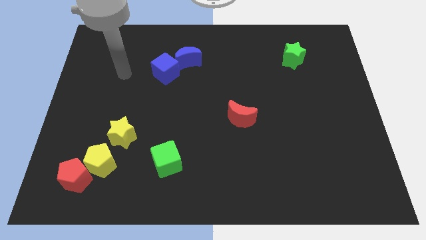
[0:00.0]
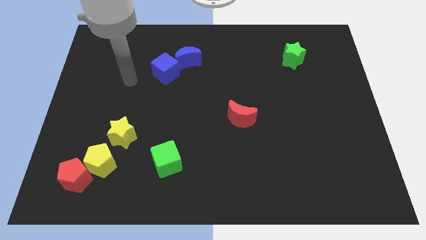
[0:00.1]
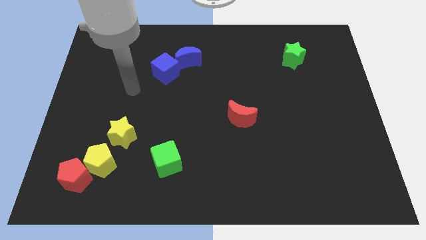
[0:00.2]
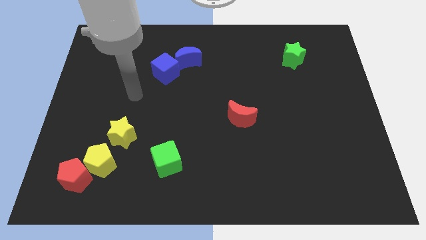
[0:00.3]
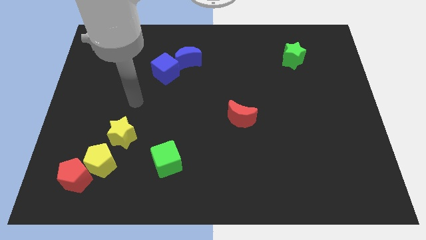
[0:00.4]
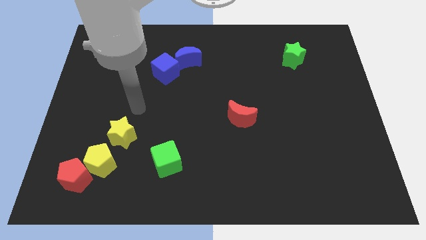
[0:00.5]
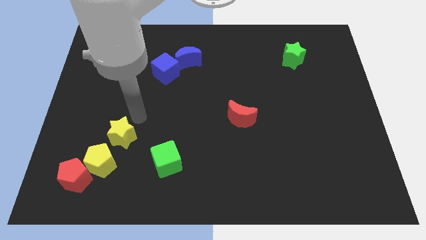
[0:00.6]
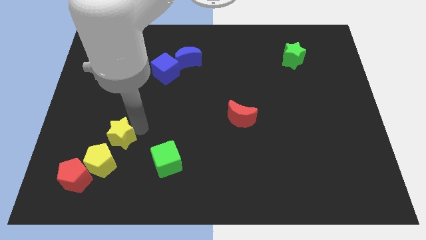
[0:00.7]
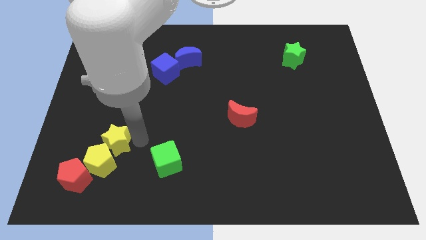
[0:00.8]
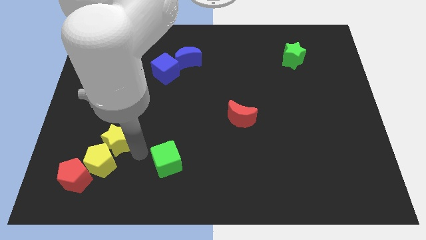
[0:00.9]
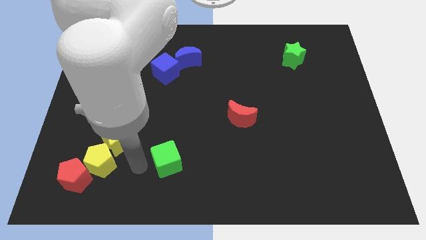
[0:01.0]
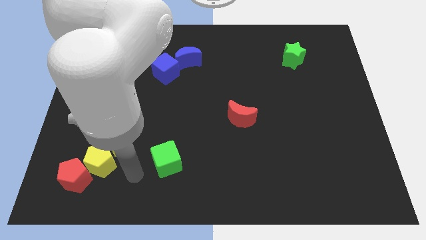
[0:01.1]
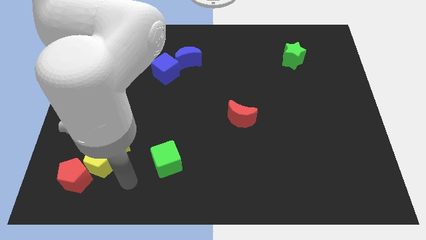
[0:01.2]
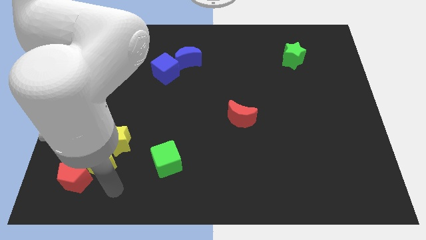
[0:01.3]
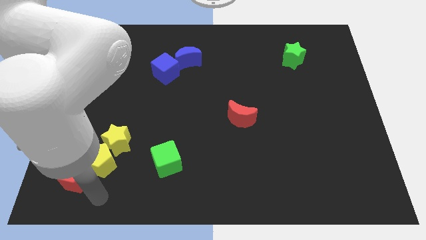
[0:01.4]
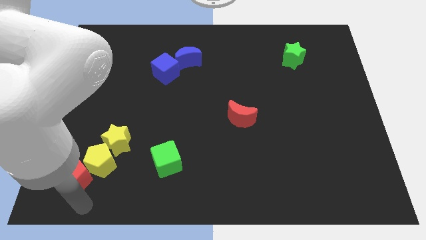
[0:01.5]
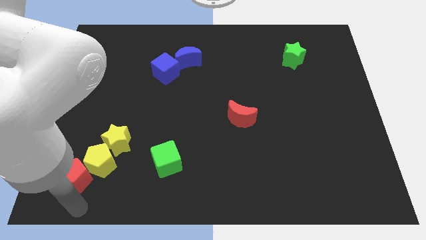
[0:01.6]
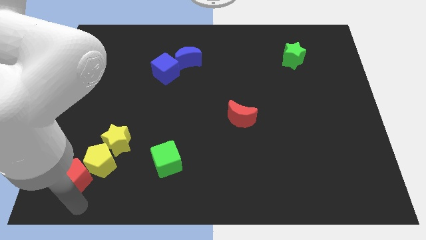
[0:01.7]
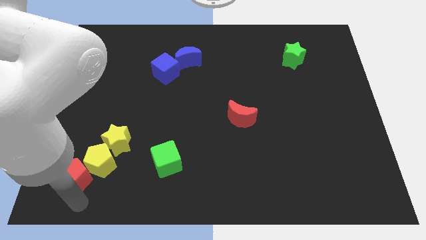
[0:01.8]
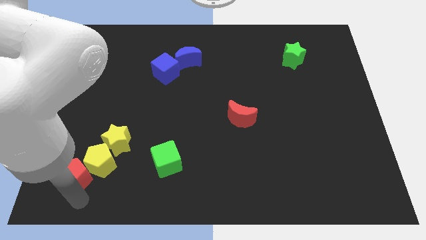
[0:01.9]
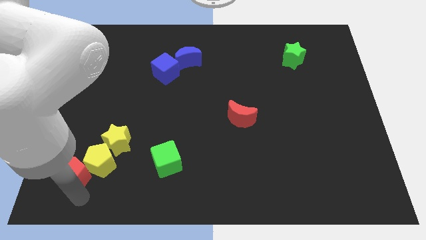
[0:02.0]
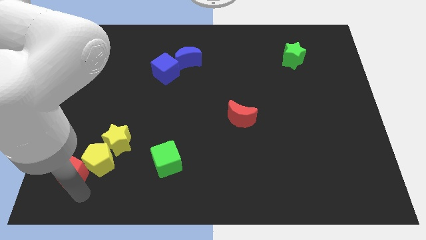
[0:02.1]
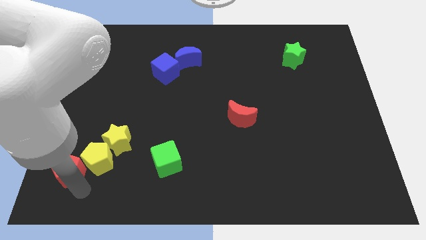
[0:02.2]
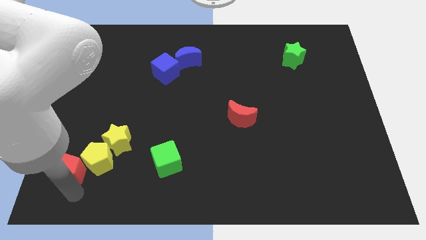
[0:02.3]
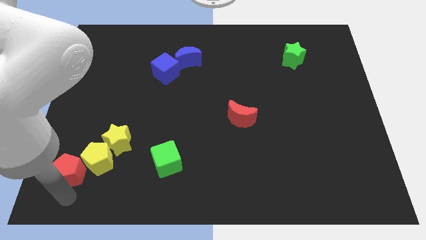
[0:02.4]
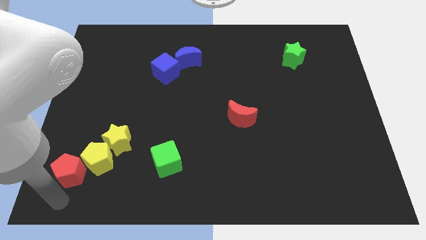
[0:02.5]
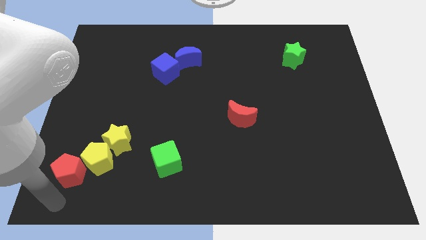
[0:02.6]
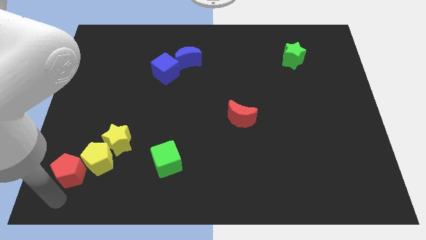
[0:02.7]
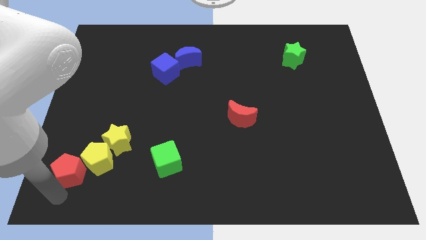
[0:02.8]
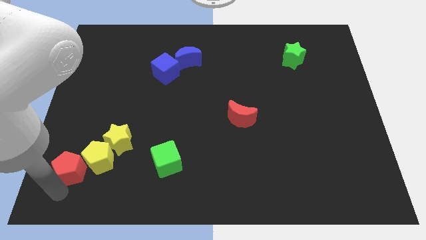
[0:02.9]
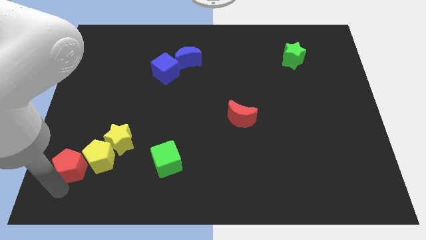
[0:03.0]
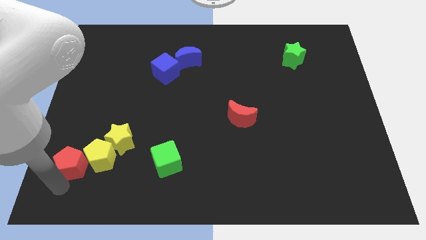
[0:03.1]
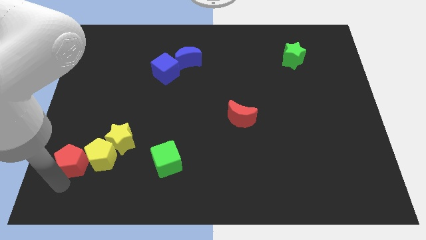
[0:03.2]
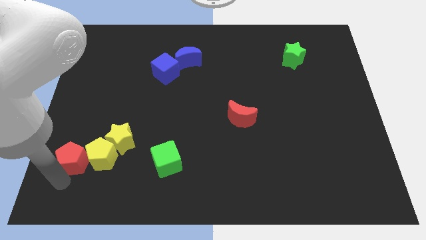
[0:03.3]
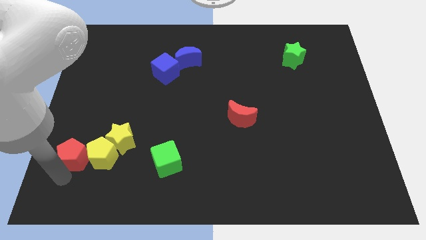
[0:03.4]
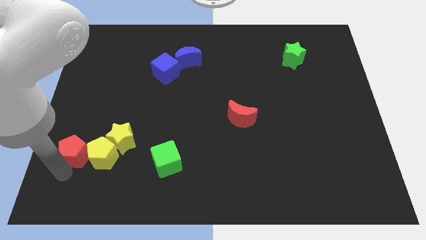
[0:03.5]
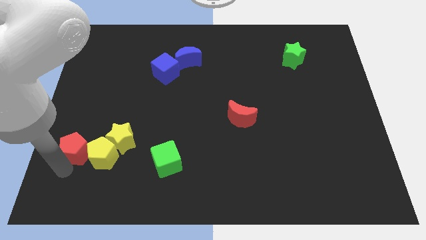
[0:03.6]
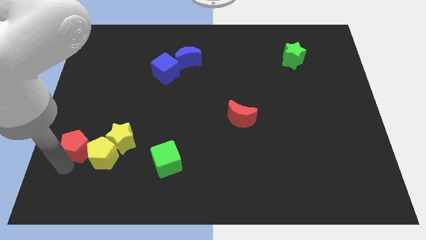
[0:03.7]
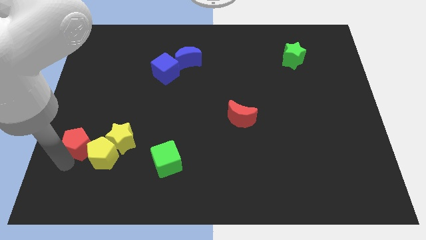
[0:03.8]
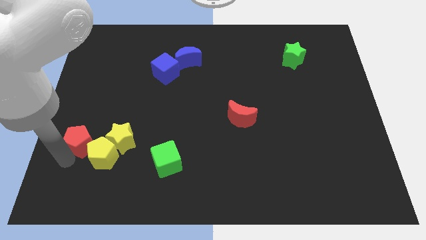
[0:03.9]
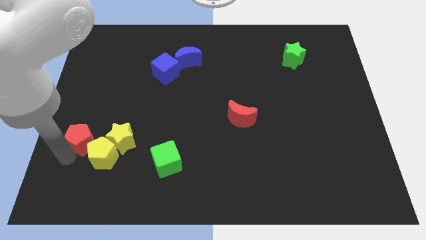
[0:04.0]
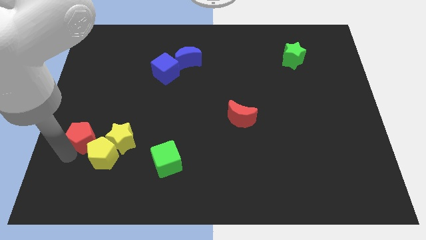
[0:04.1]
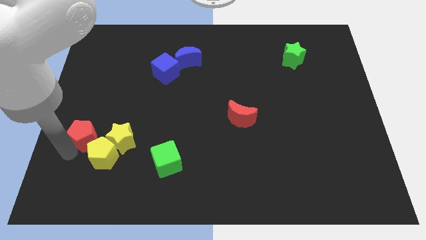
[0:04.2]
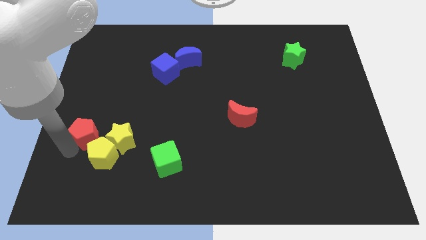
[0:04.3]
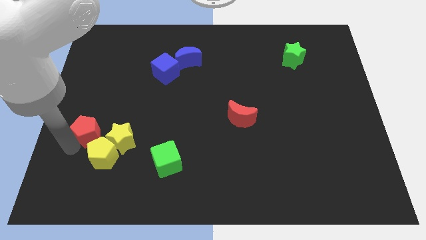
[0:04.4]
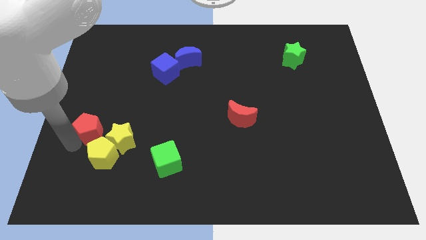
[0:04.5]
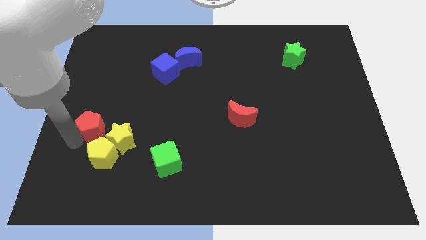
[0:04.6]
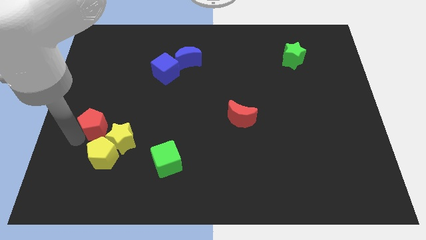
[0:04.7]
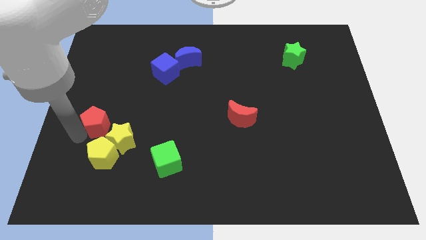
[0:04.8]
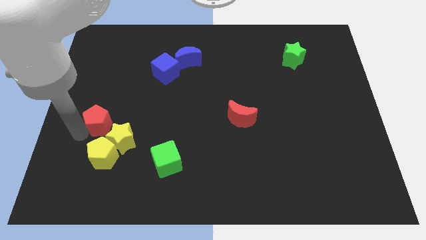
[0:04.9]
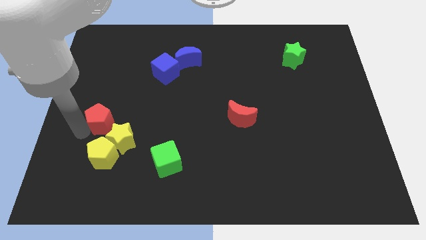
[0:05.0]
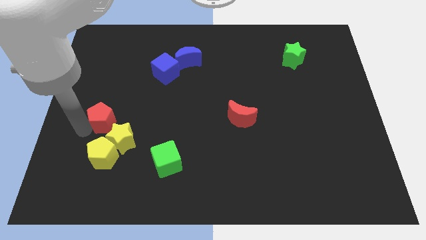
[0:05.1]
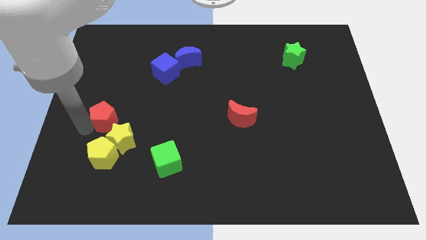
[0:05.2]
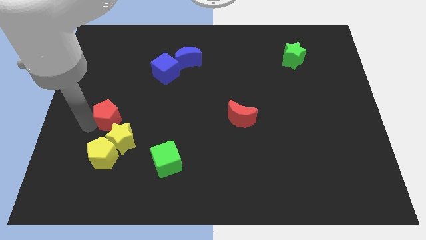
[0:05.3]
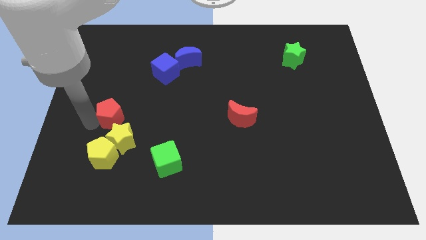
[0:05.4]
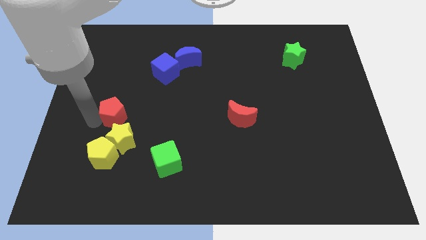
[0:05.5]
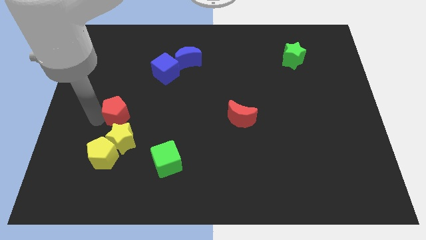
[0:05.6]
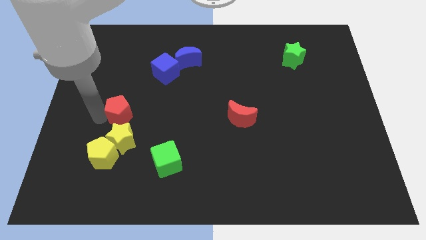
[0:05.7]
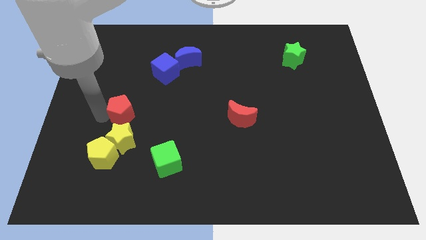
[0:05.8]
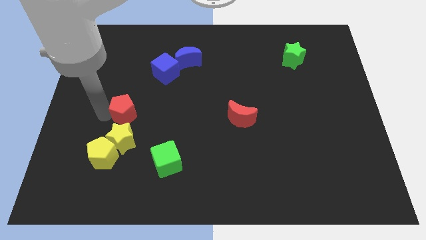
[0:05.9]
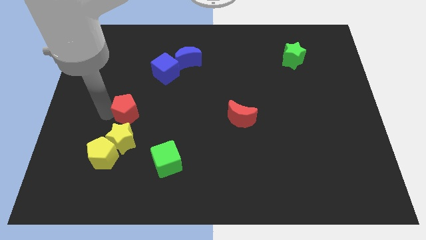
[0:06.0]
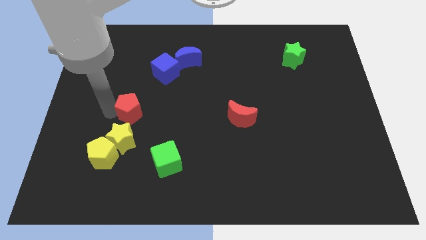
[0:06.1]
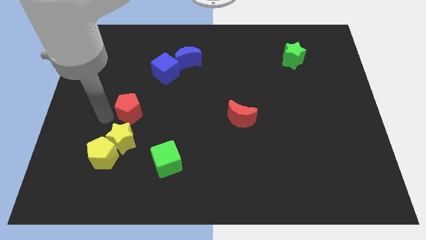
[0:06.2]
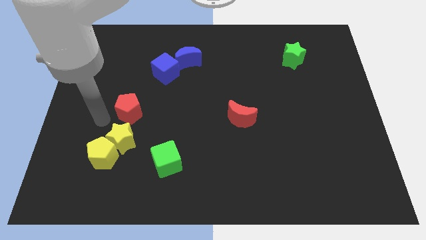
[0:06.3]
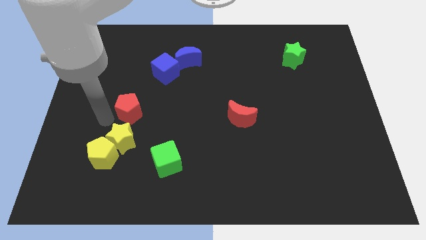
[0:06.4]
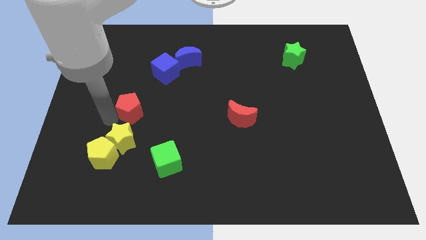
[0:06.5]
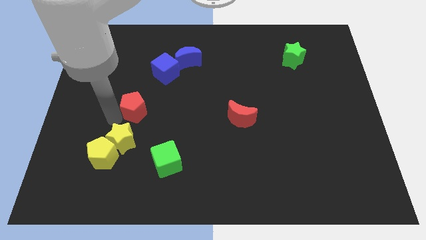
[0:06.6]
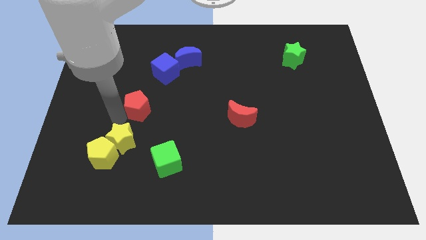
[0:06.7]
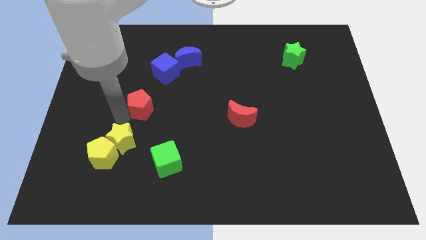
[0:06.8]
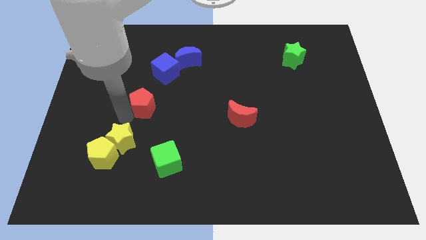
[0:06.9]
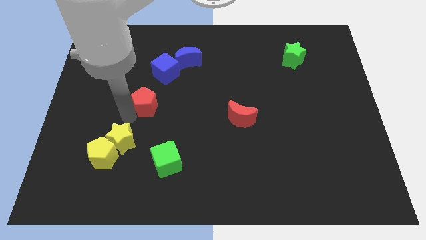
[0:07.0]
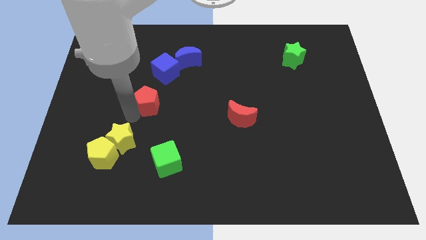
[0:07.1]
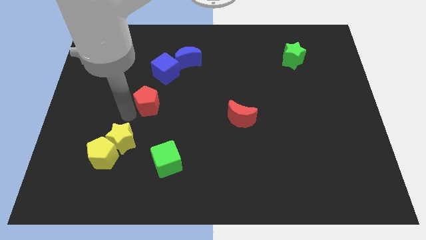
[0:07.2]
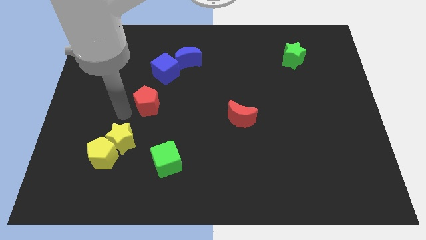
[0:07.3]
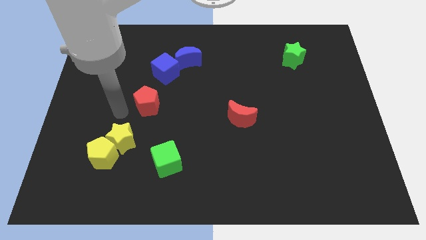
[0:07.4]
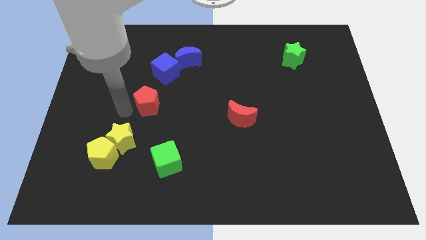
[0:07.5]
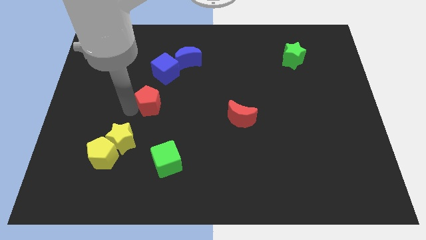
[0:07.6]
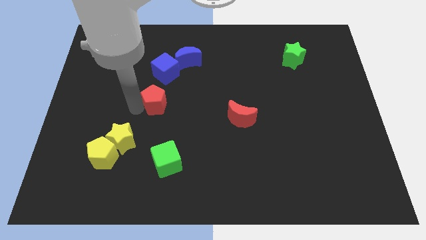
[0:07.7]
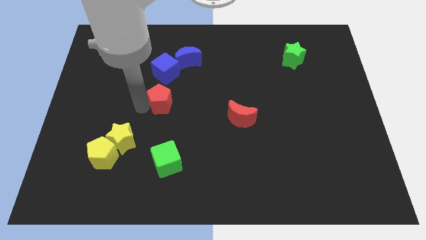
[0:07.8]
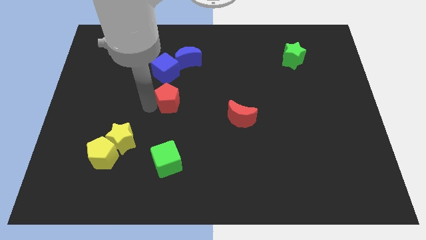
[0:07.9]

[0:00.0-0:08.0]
put the red pentagon below the blue moon
